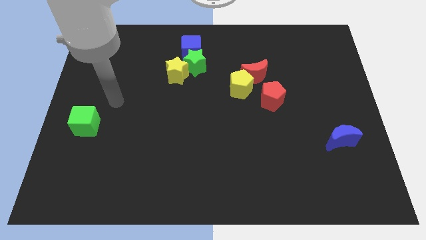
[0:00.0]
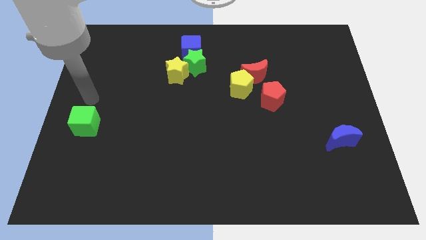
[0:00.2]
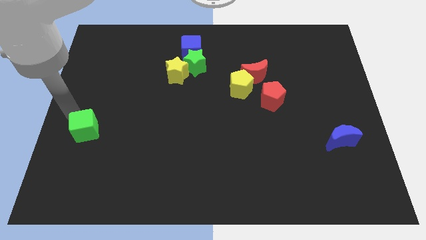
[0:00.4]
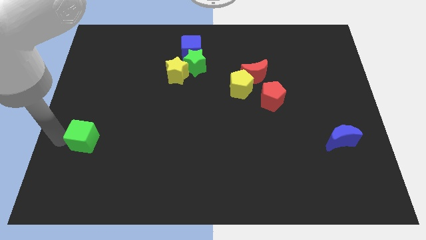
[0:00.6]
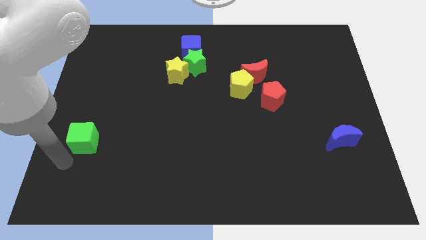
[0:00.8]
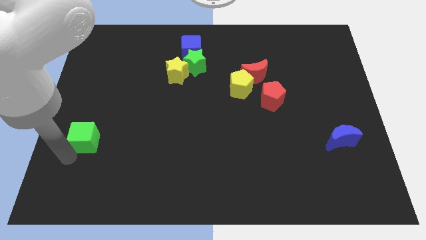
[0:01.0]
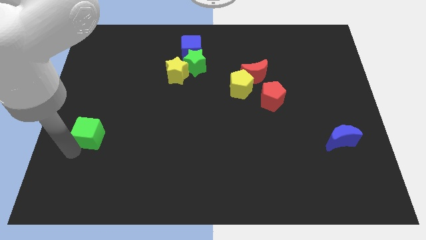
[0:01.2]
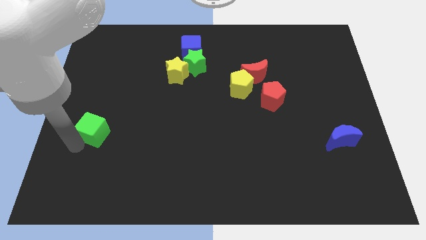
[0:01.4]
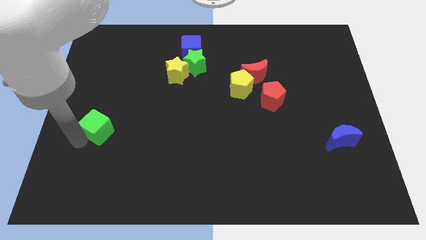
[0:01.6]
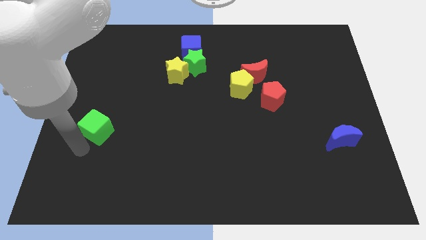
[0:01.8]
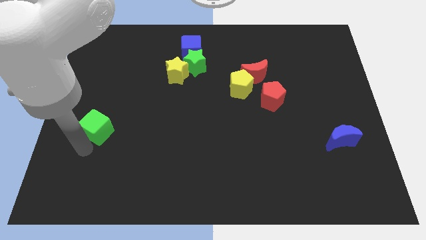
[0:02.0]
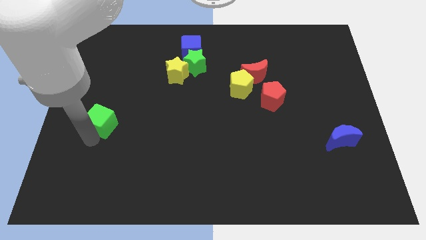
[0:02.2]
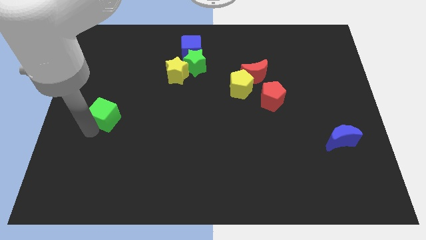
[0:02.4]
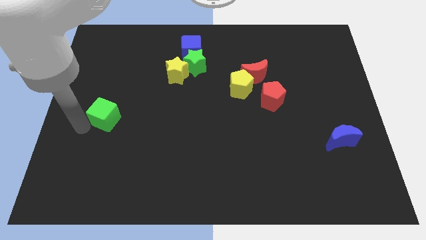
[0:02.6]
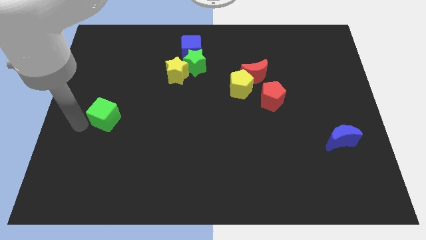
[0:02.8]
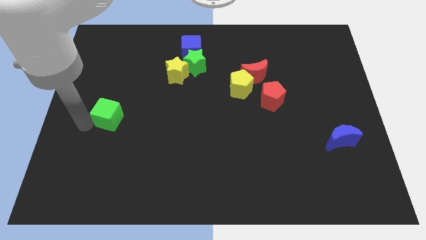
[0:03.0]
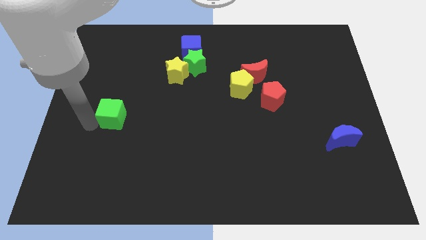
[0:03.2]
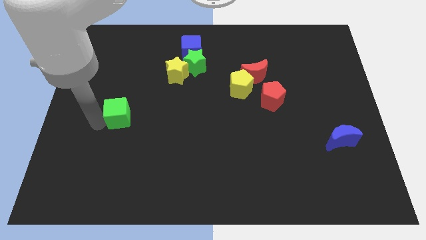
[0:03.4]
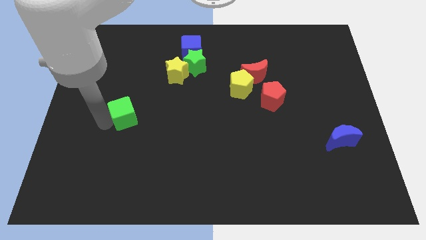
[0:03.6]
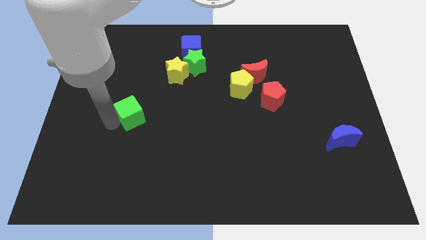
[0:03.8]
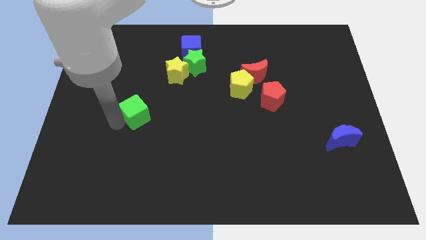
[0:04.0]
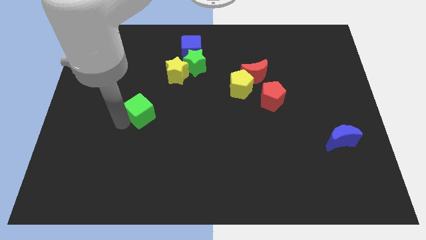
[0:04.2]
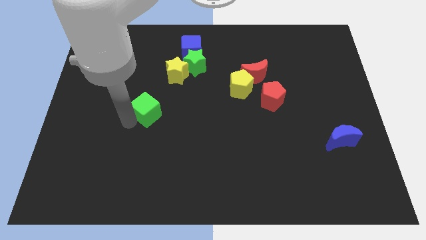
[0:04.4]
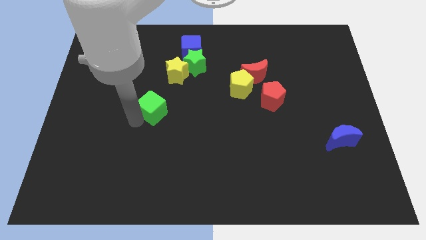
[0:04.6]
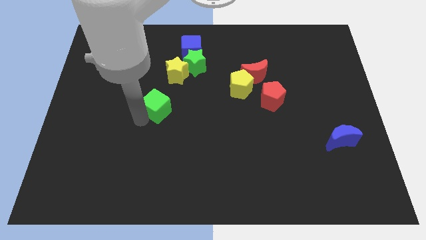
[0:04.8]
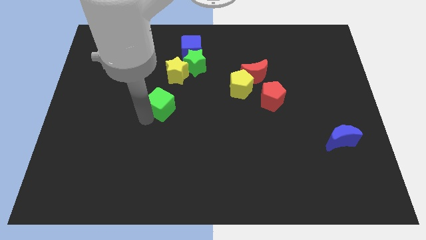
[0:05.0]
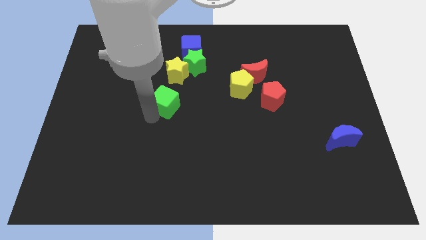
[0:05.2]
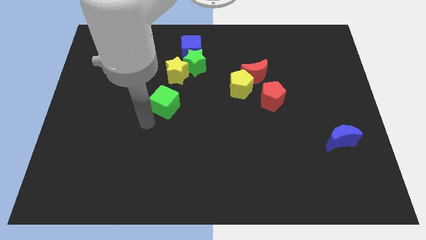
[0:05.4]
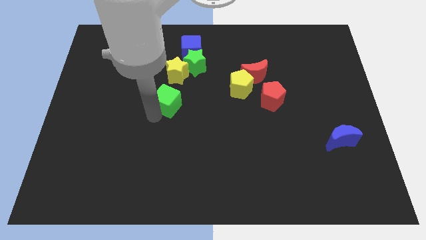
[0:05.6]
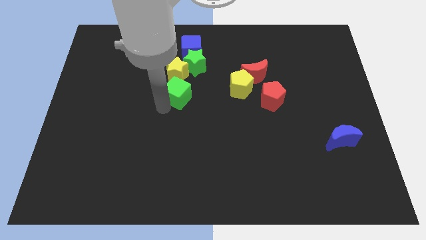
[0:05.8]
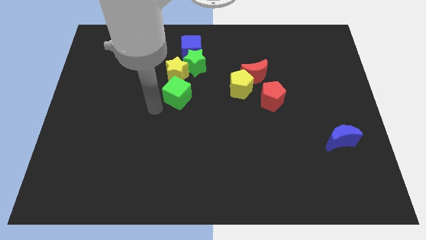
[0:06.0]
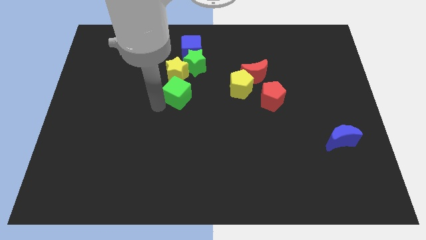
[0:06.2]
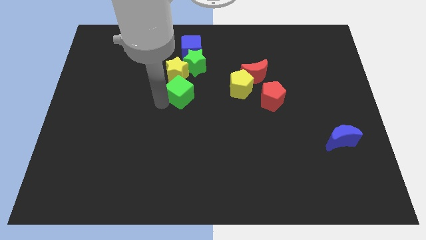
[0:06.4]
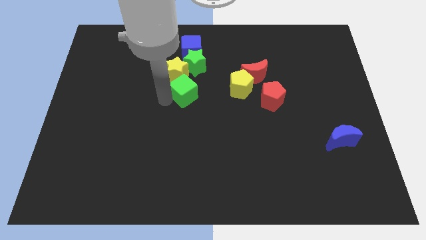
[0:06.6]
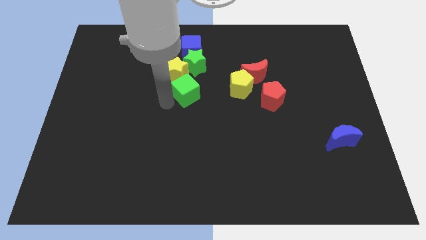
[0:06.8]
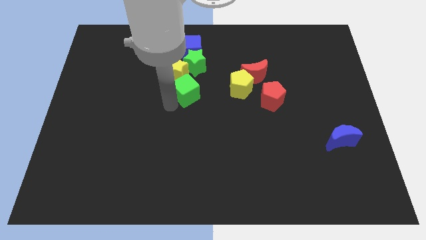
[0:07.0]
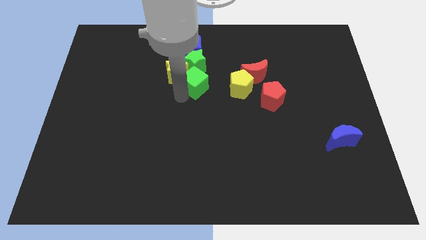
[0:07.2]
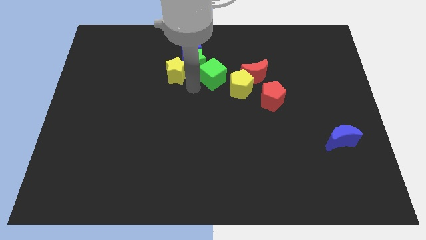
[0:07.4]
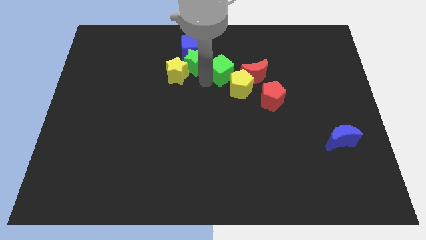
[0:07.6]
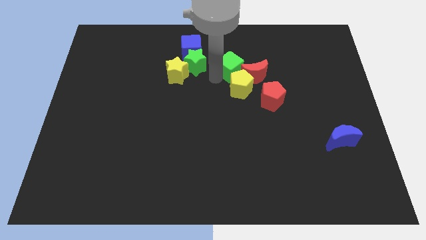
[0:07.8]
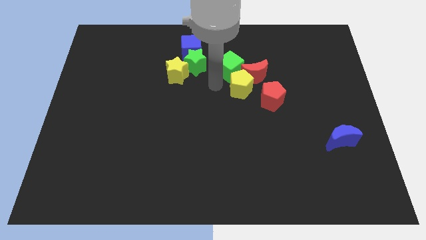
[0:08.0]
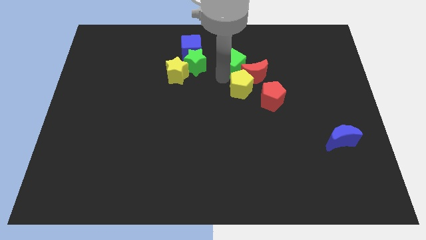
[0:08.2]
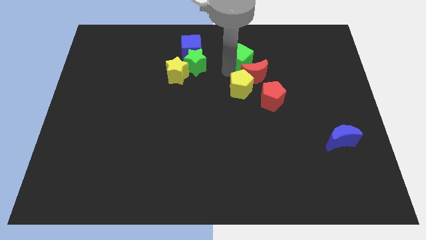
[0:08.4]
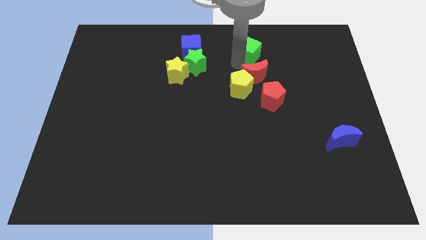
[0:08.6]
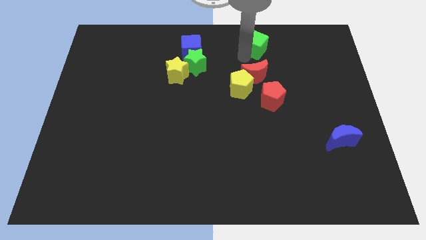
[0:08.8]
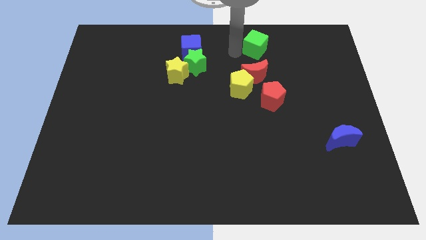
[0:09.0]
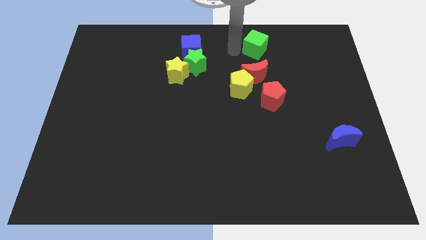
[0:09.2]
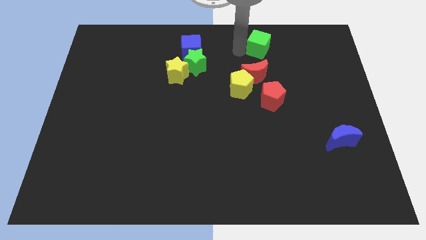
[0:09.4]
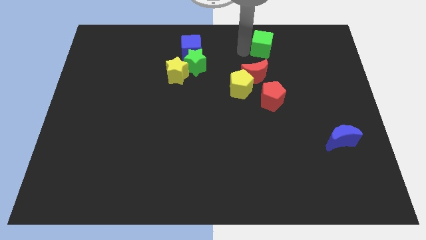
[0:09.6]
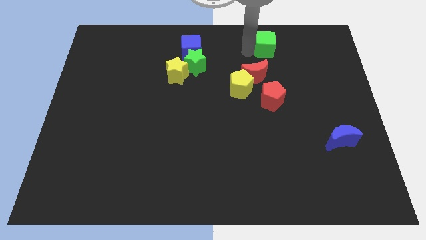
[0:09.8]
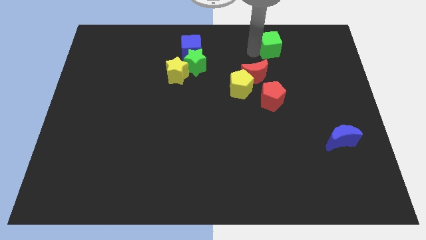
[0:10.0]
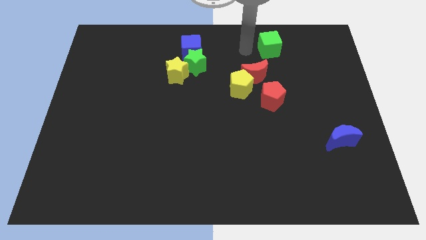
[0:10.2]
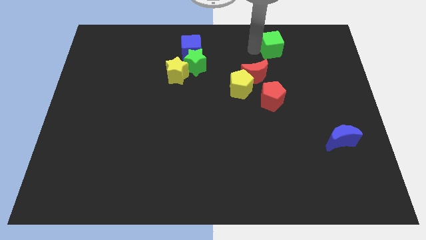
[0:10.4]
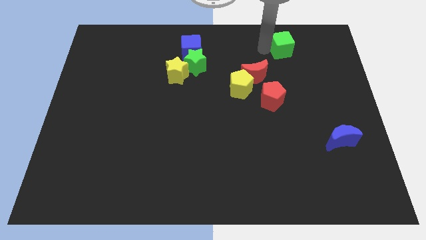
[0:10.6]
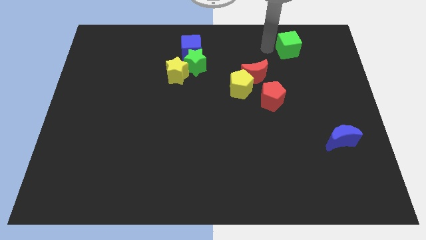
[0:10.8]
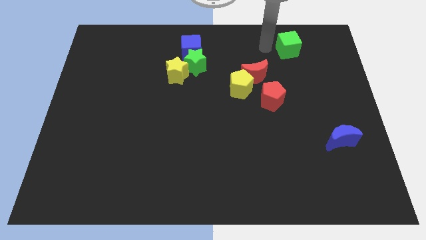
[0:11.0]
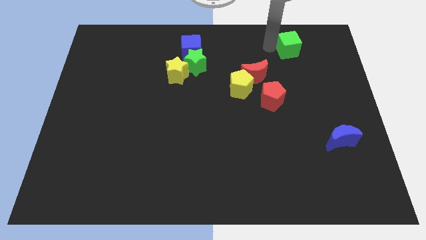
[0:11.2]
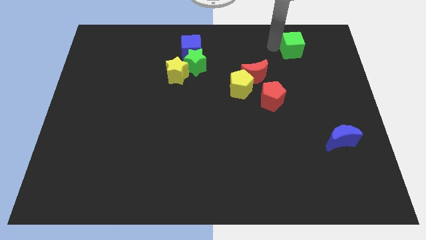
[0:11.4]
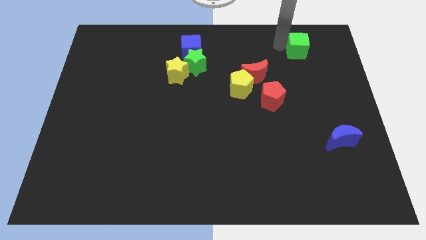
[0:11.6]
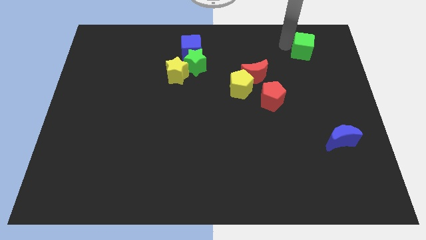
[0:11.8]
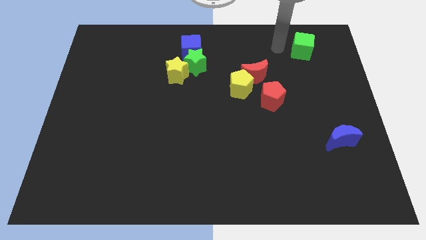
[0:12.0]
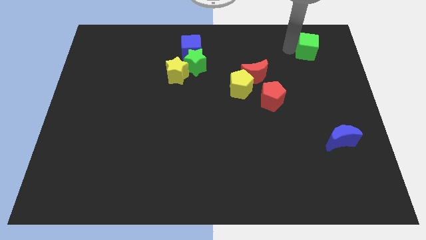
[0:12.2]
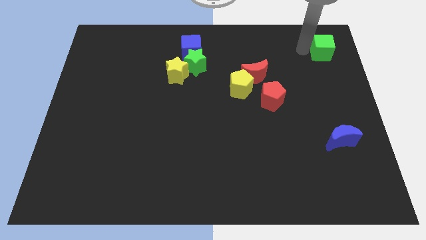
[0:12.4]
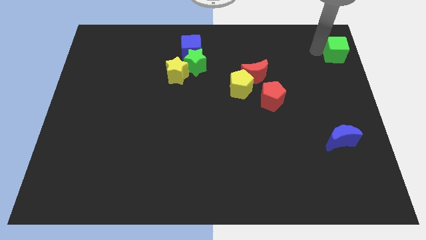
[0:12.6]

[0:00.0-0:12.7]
slide the green cube to the top right

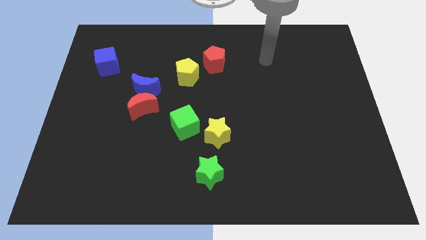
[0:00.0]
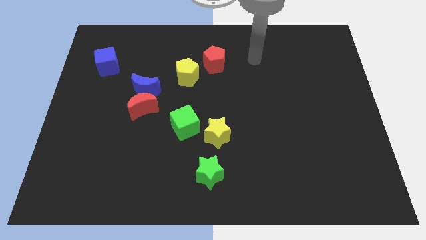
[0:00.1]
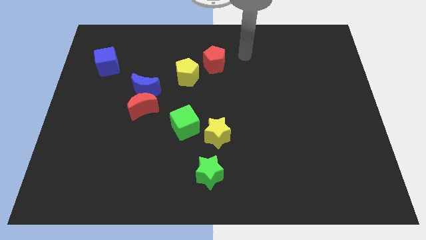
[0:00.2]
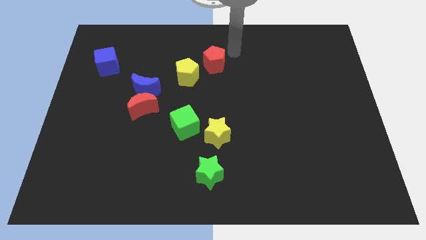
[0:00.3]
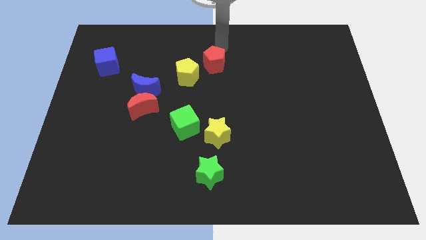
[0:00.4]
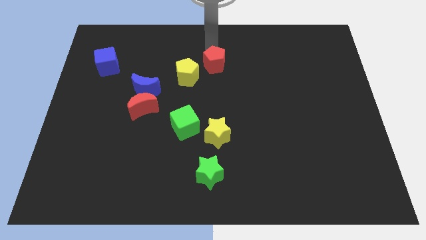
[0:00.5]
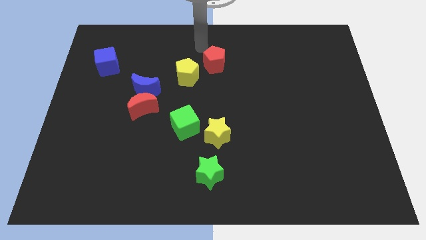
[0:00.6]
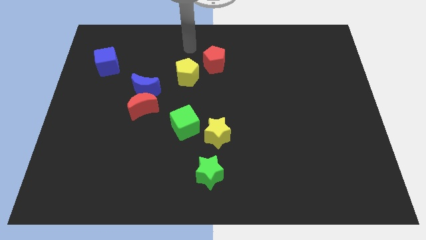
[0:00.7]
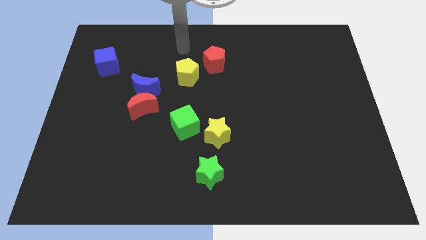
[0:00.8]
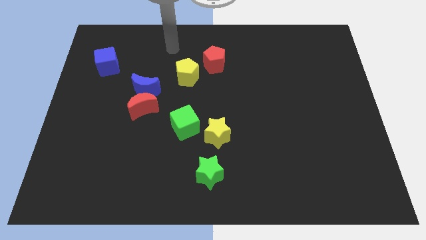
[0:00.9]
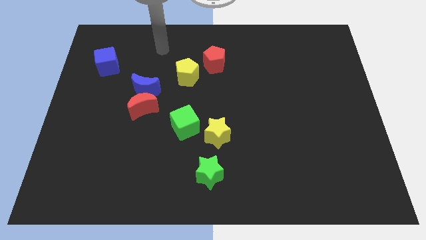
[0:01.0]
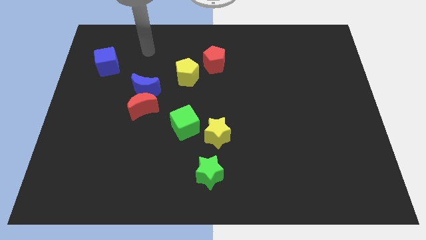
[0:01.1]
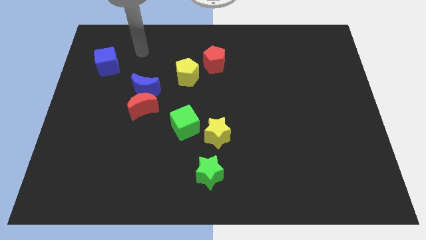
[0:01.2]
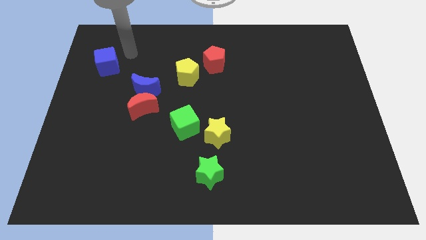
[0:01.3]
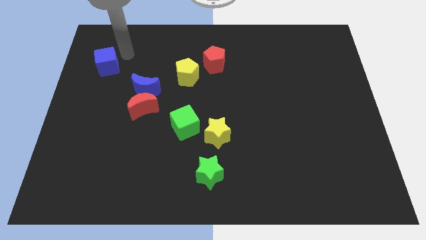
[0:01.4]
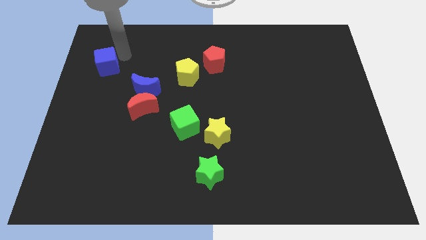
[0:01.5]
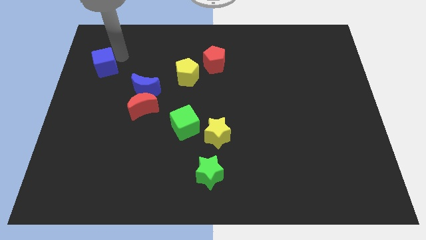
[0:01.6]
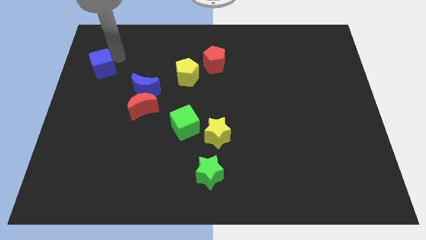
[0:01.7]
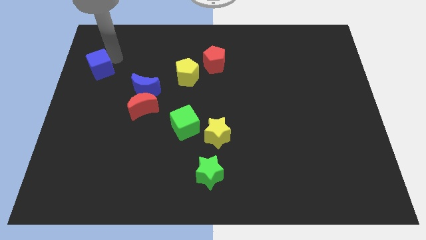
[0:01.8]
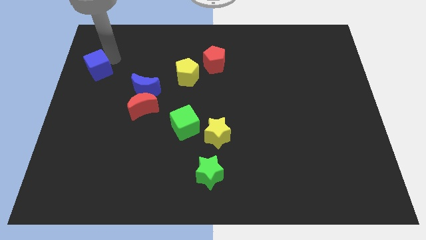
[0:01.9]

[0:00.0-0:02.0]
slide the blue cube to the left side
